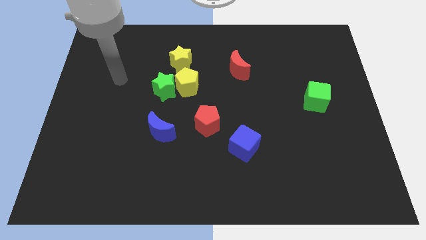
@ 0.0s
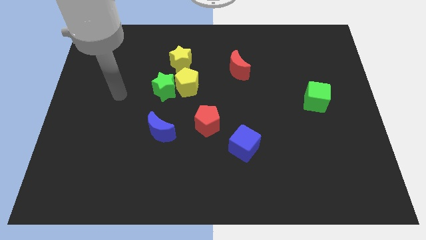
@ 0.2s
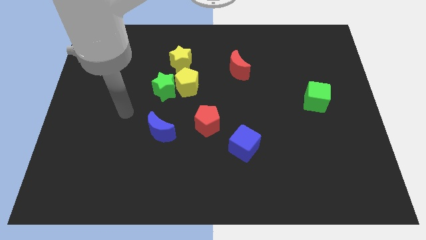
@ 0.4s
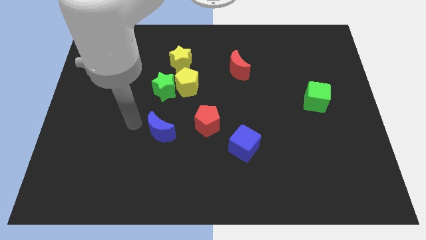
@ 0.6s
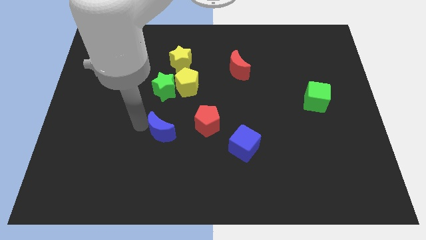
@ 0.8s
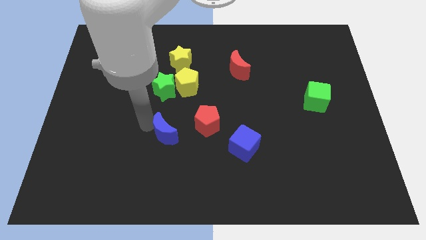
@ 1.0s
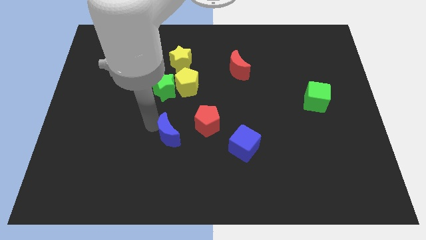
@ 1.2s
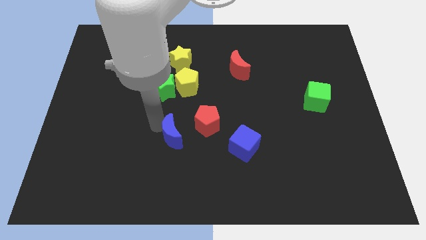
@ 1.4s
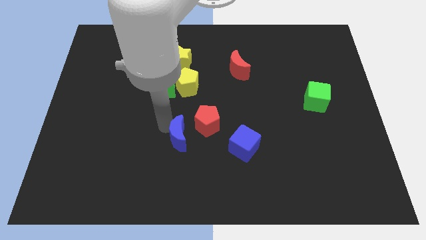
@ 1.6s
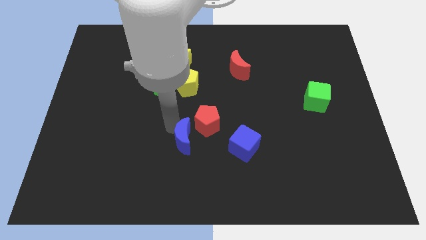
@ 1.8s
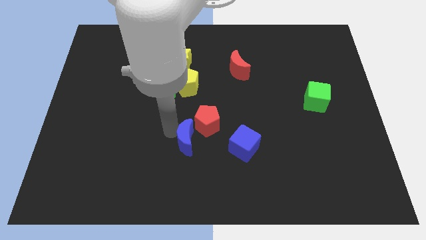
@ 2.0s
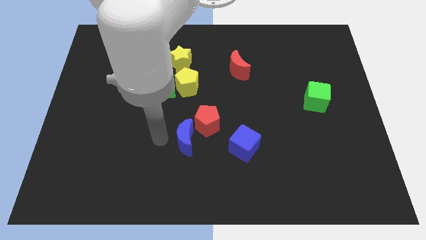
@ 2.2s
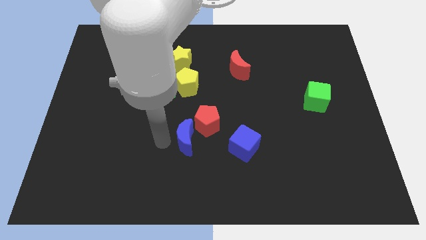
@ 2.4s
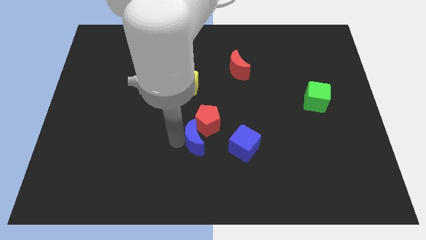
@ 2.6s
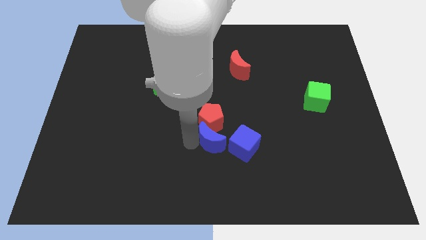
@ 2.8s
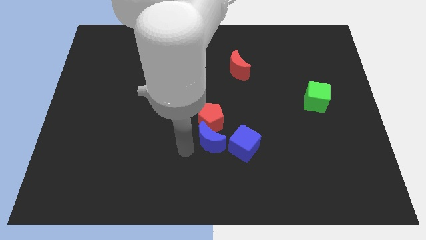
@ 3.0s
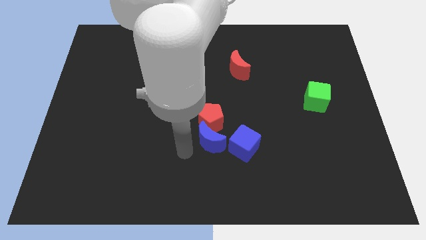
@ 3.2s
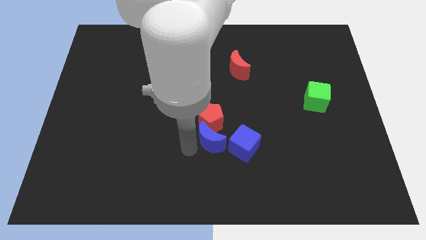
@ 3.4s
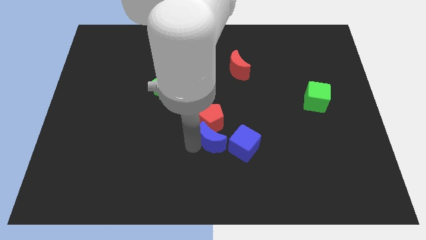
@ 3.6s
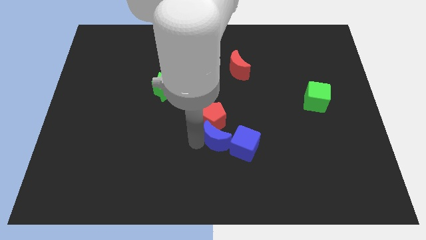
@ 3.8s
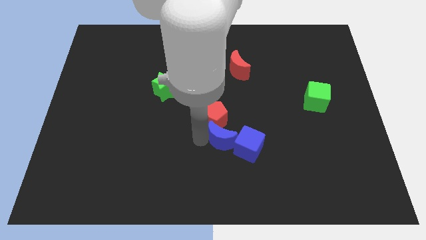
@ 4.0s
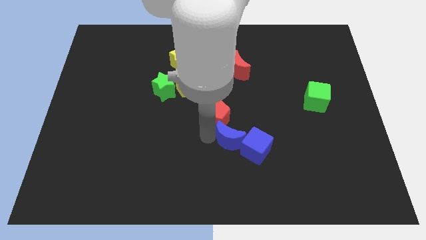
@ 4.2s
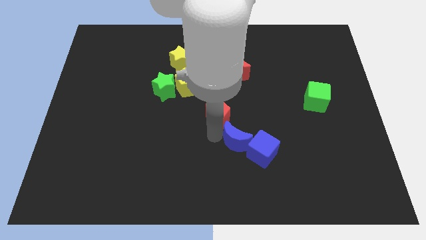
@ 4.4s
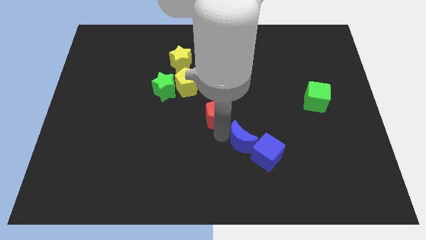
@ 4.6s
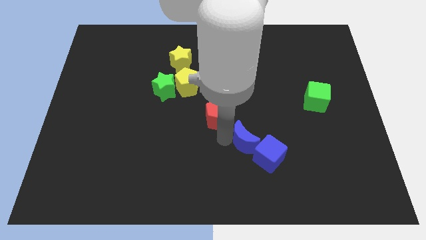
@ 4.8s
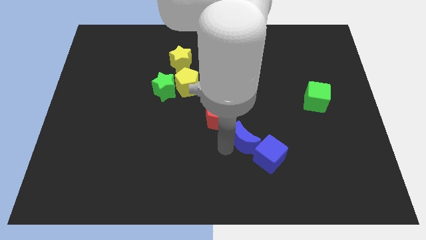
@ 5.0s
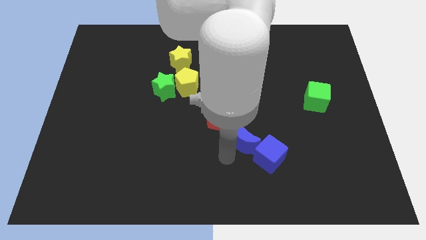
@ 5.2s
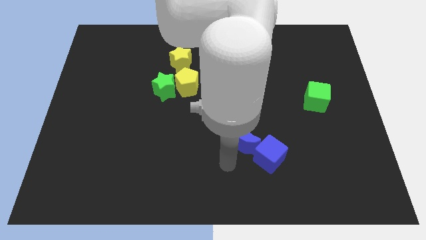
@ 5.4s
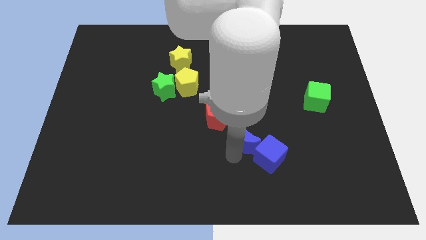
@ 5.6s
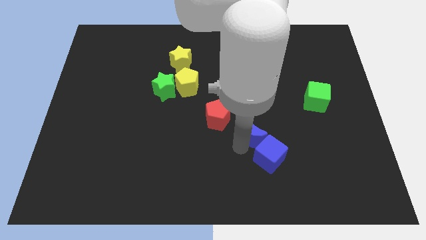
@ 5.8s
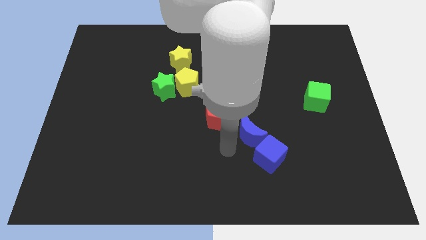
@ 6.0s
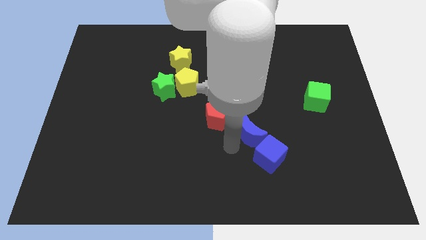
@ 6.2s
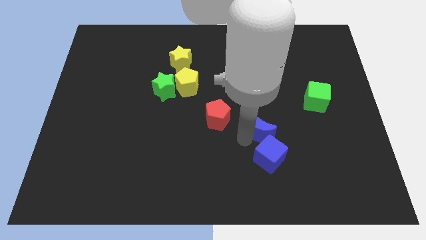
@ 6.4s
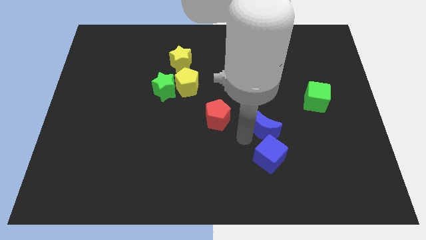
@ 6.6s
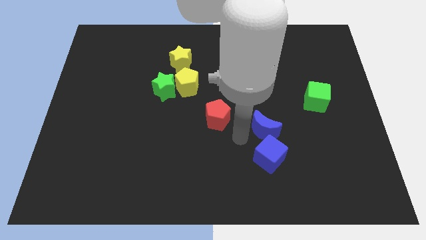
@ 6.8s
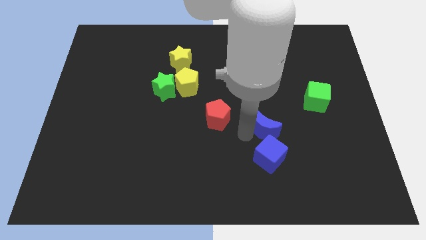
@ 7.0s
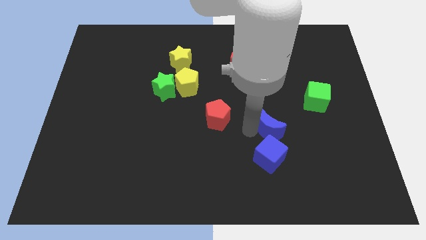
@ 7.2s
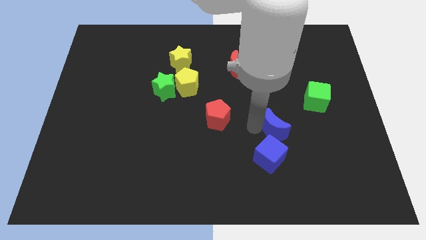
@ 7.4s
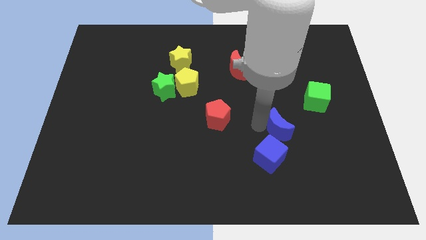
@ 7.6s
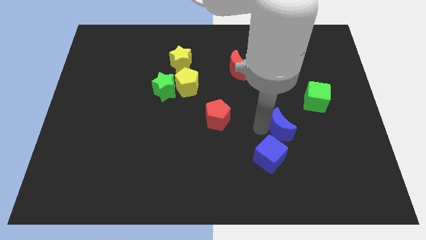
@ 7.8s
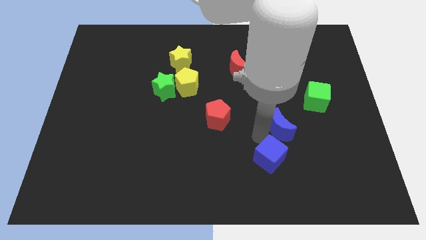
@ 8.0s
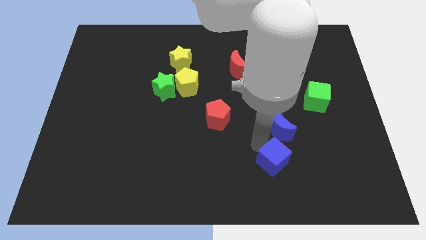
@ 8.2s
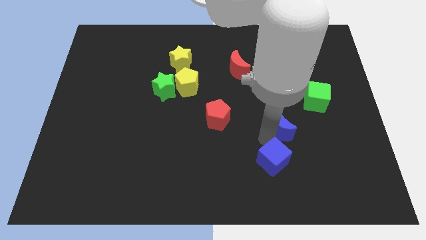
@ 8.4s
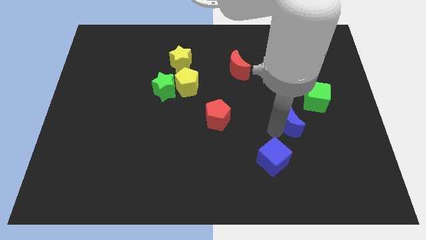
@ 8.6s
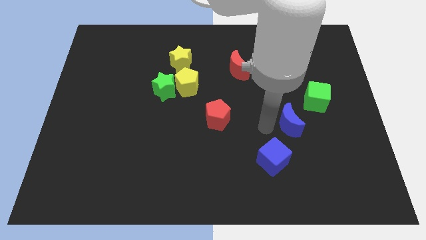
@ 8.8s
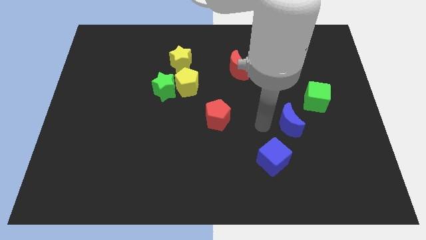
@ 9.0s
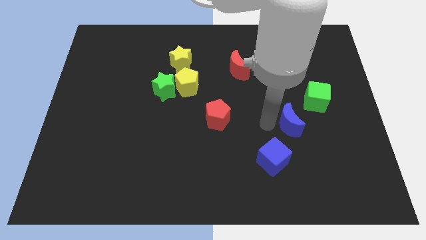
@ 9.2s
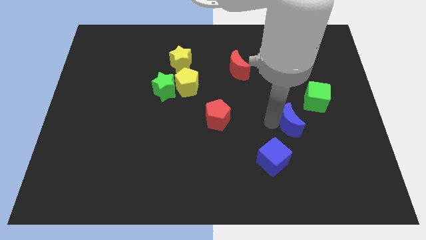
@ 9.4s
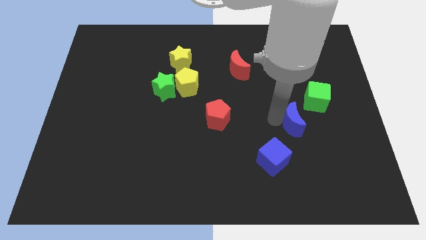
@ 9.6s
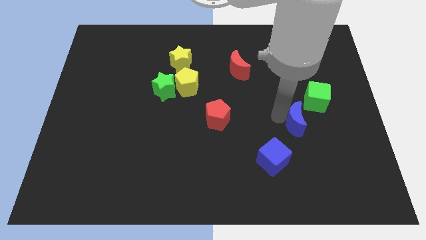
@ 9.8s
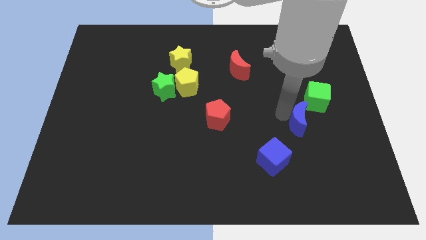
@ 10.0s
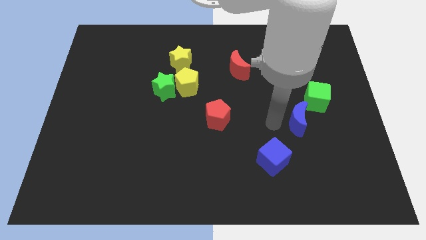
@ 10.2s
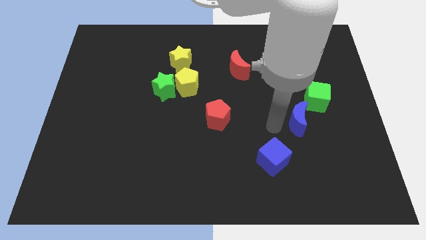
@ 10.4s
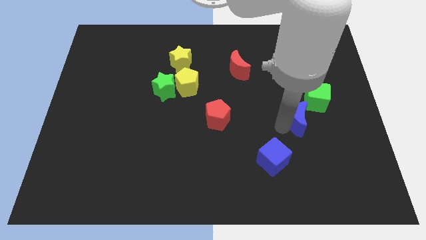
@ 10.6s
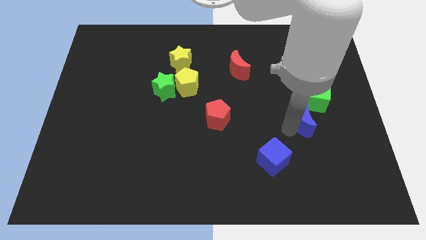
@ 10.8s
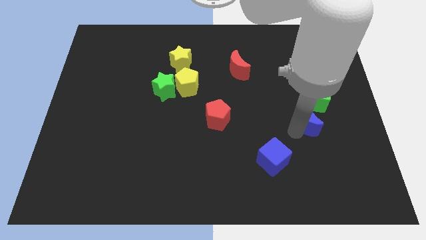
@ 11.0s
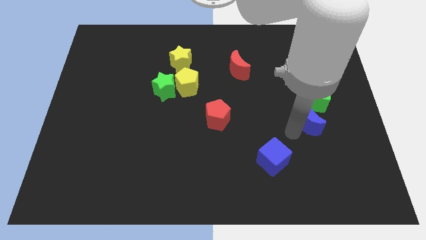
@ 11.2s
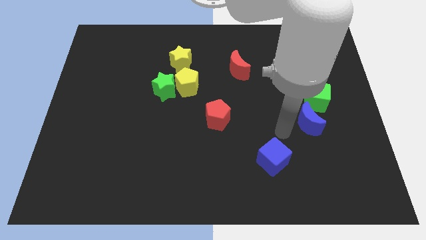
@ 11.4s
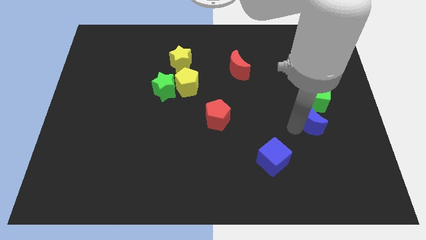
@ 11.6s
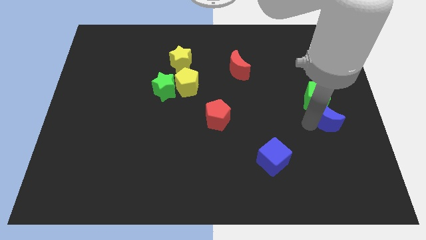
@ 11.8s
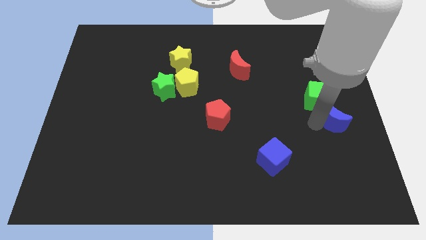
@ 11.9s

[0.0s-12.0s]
put the blue moon to the center right

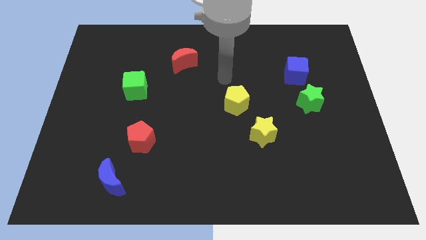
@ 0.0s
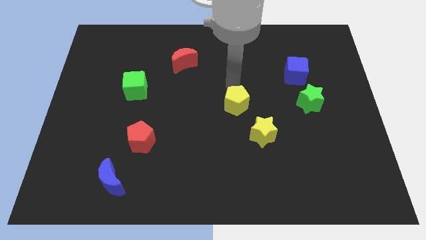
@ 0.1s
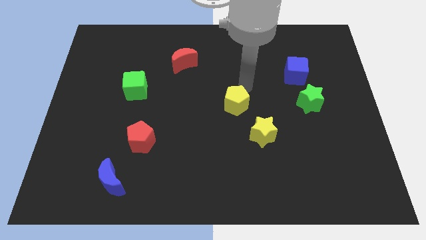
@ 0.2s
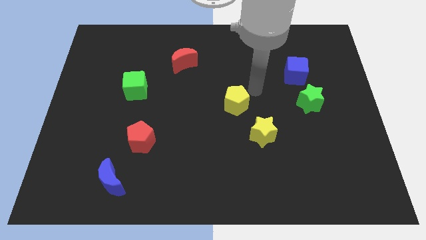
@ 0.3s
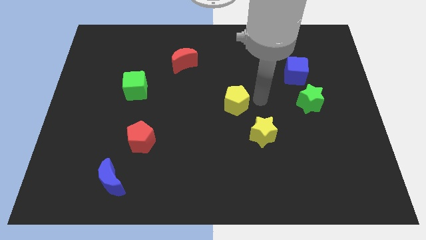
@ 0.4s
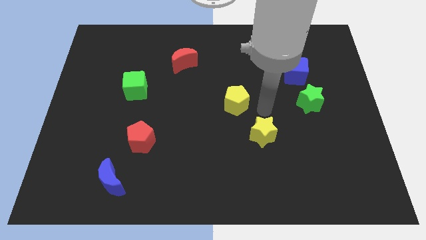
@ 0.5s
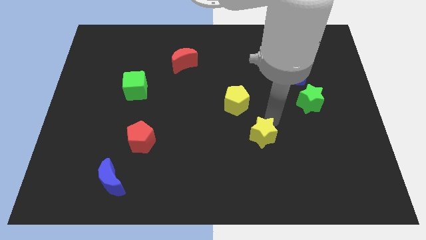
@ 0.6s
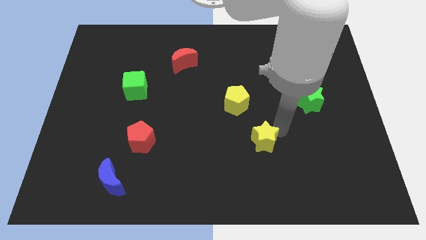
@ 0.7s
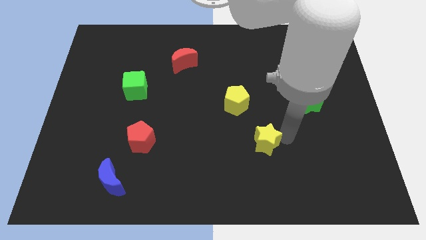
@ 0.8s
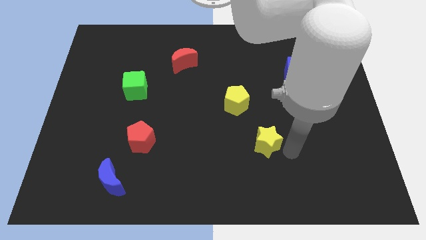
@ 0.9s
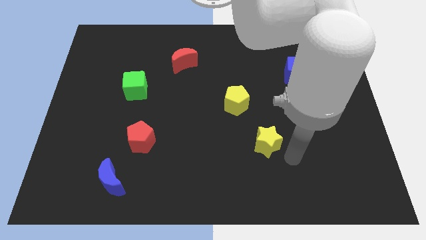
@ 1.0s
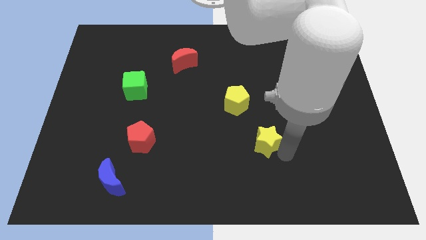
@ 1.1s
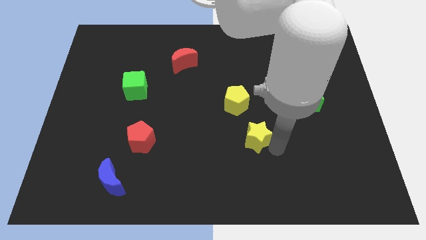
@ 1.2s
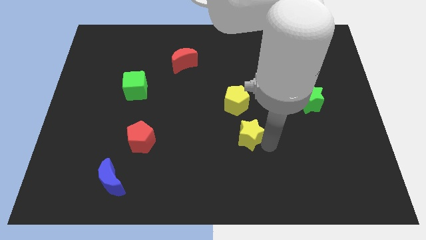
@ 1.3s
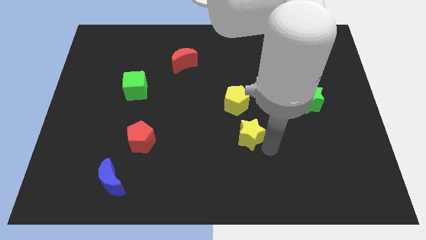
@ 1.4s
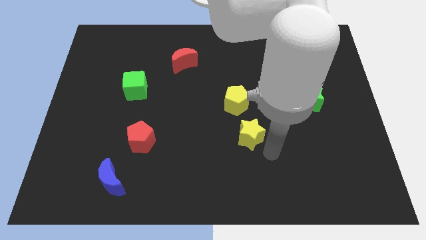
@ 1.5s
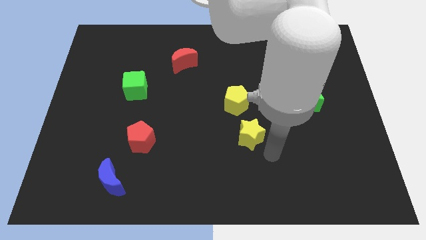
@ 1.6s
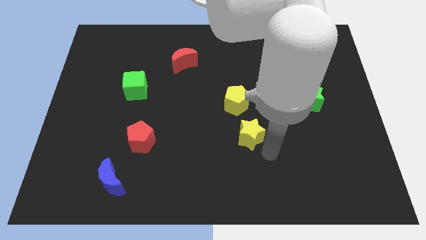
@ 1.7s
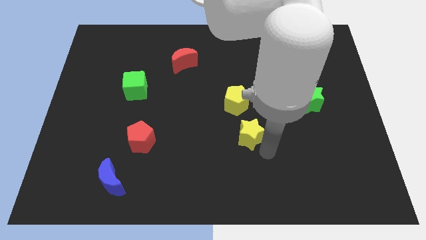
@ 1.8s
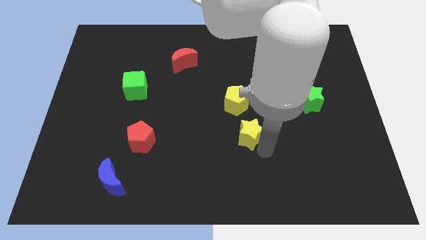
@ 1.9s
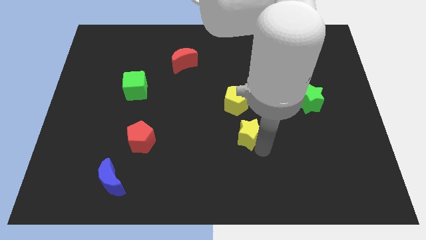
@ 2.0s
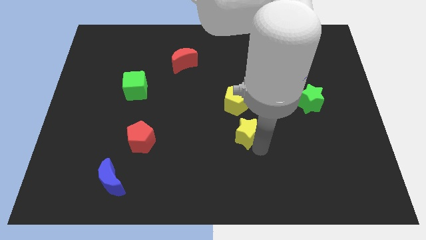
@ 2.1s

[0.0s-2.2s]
slide the yellow star to the center of the board
